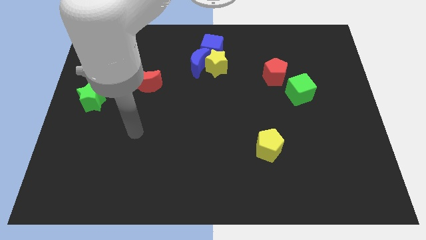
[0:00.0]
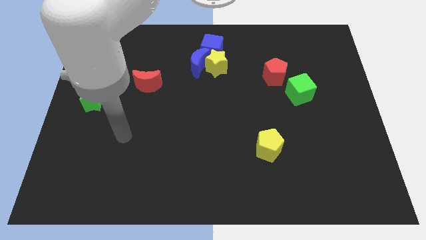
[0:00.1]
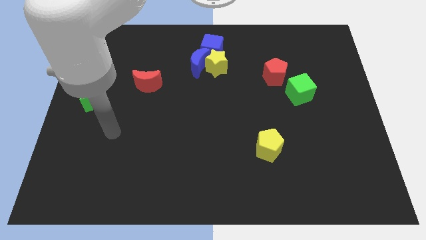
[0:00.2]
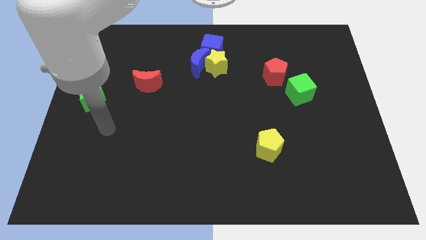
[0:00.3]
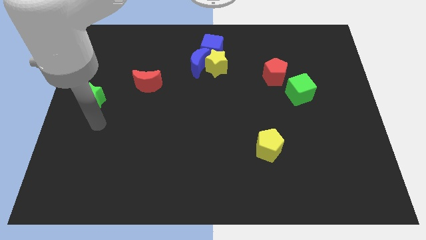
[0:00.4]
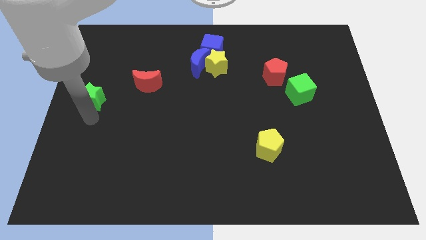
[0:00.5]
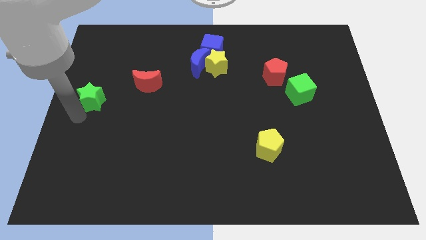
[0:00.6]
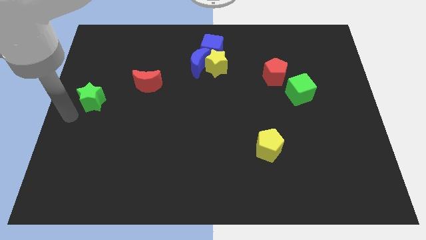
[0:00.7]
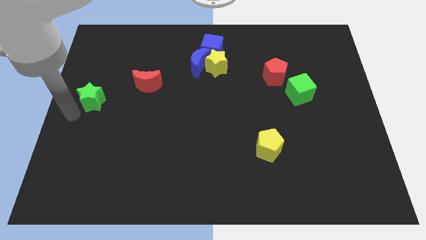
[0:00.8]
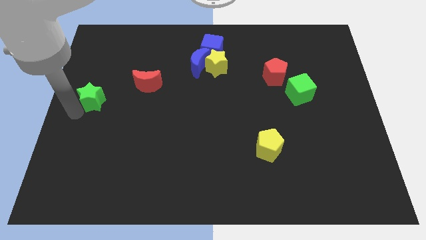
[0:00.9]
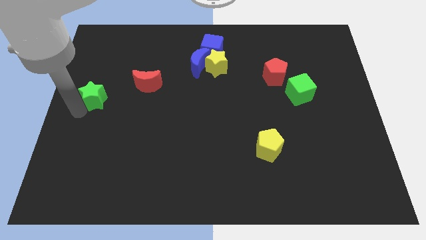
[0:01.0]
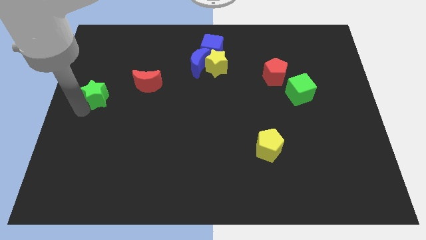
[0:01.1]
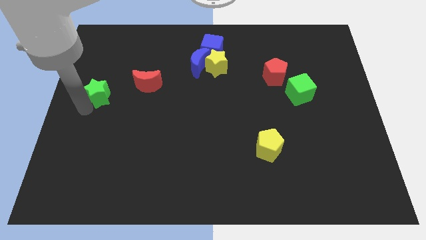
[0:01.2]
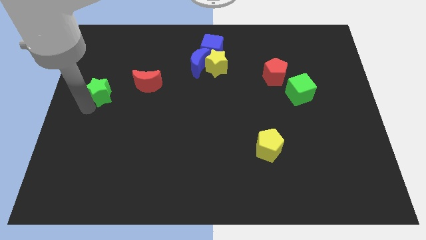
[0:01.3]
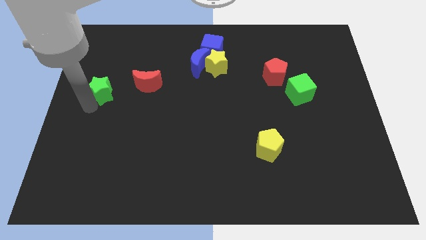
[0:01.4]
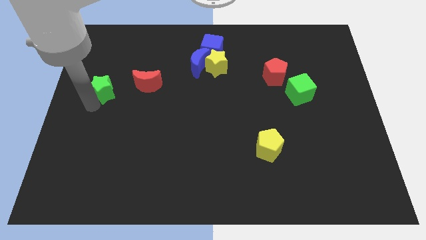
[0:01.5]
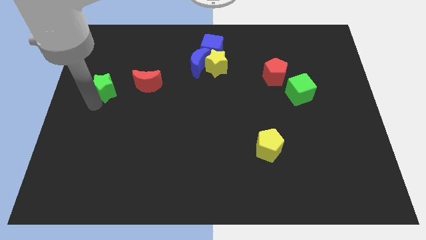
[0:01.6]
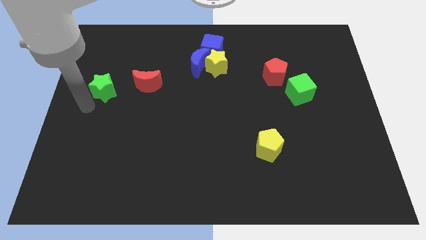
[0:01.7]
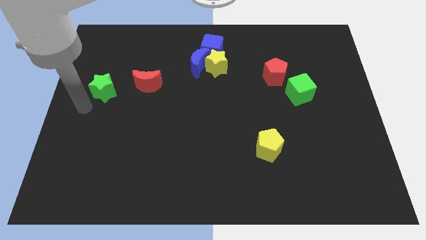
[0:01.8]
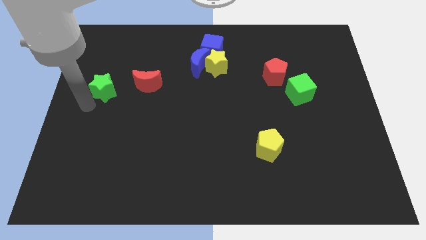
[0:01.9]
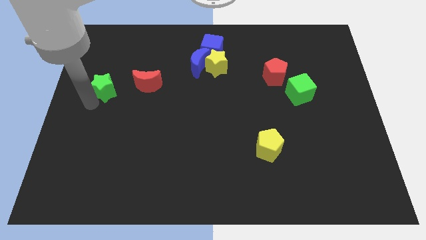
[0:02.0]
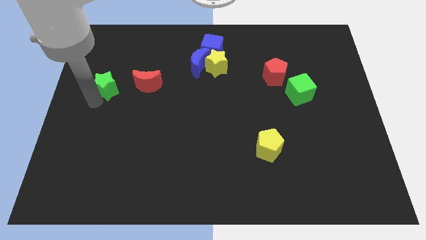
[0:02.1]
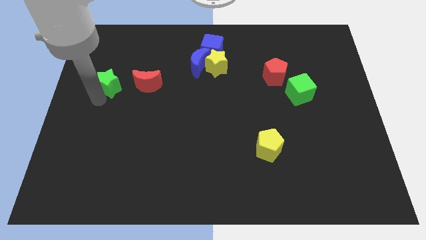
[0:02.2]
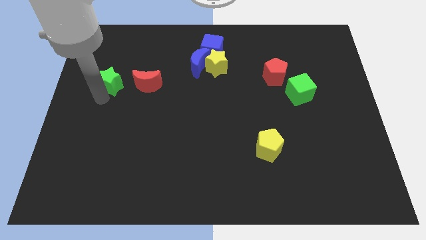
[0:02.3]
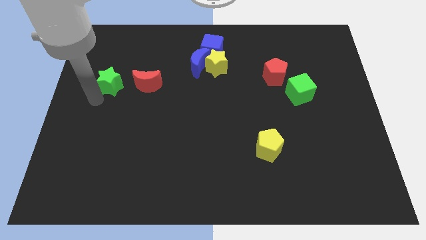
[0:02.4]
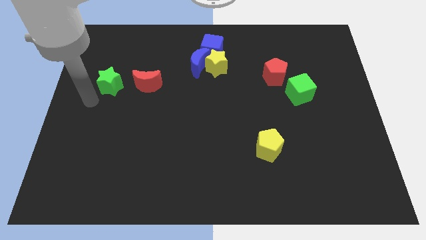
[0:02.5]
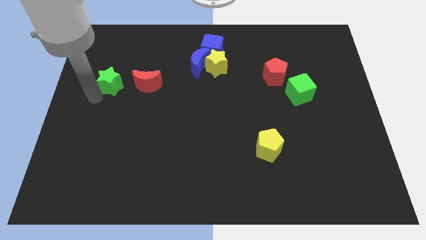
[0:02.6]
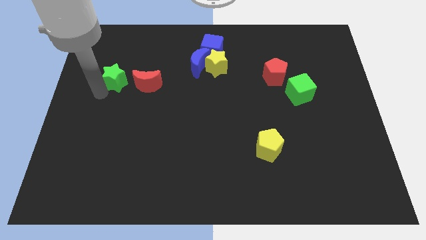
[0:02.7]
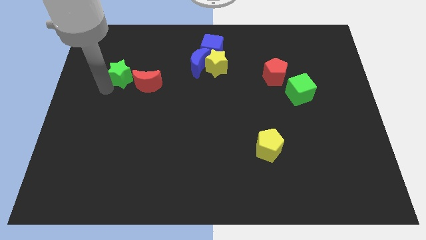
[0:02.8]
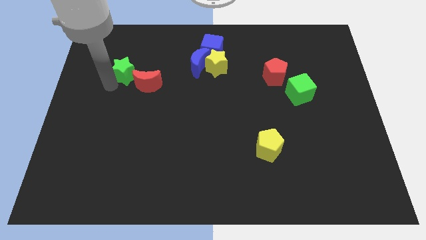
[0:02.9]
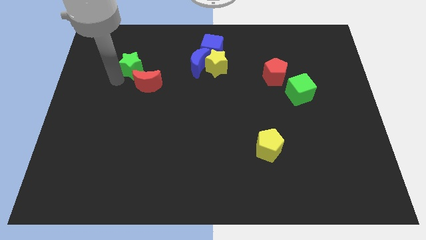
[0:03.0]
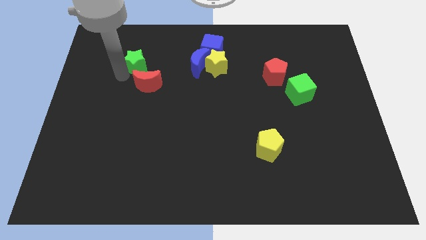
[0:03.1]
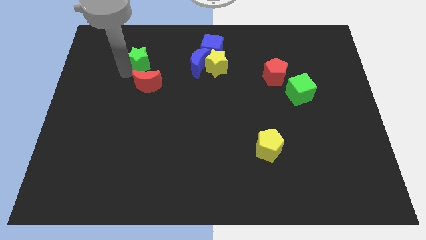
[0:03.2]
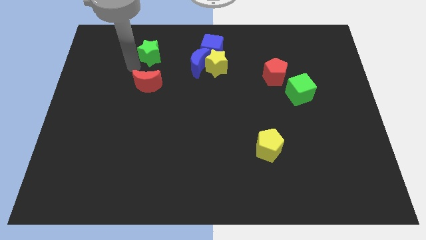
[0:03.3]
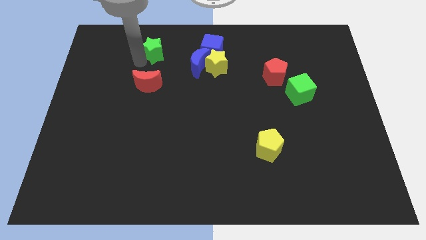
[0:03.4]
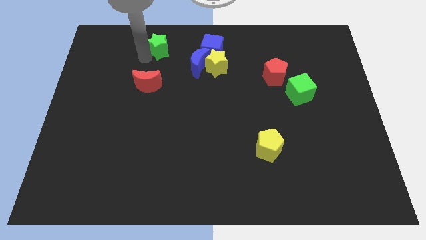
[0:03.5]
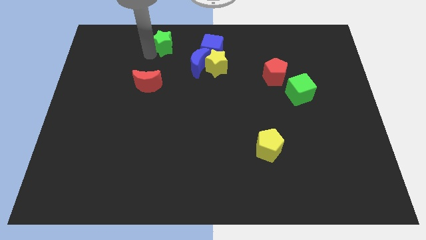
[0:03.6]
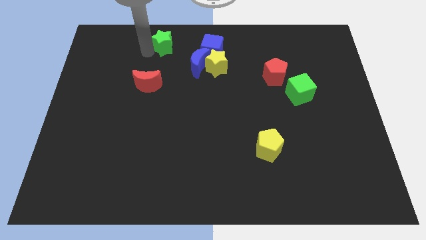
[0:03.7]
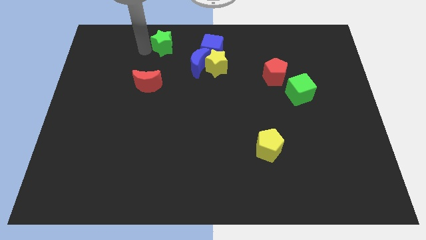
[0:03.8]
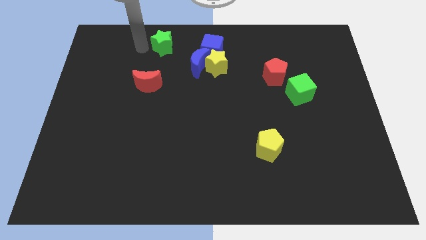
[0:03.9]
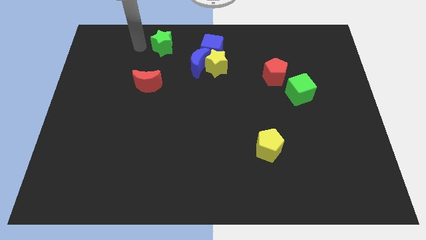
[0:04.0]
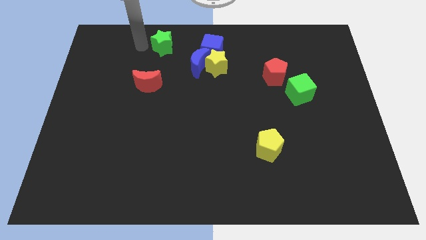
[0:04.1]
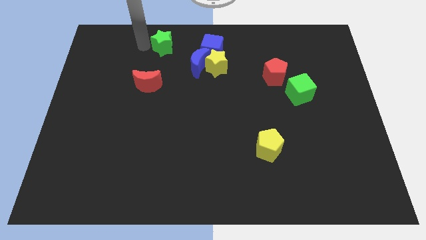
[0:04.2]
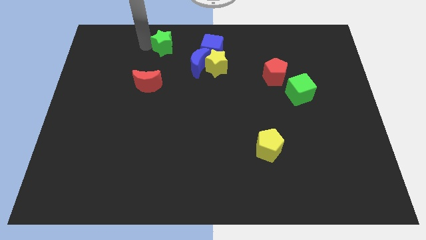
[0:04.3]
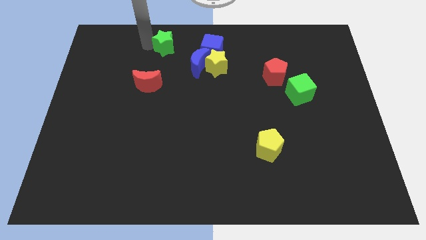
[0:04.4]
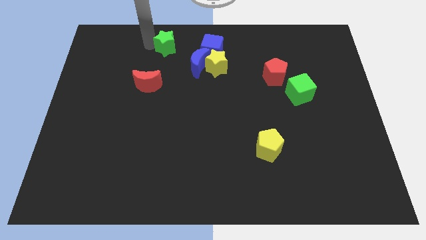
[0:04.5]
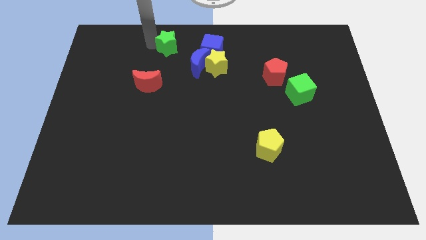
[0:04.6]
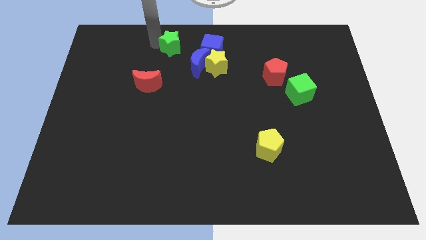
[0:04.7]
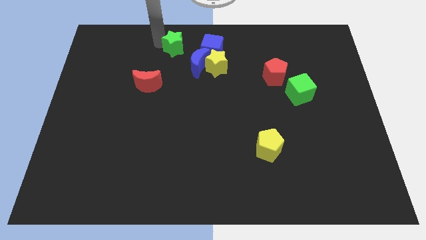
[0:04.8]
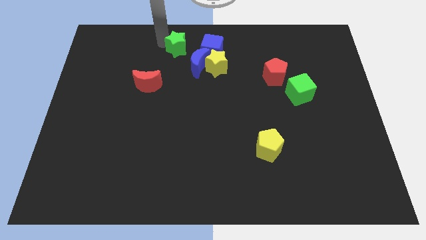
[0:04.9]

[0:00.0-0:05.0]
slide the green star to the towards your base

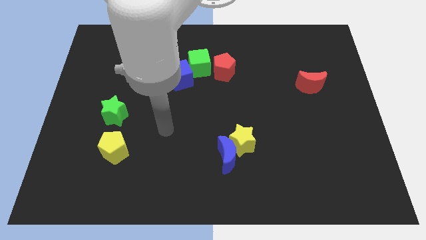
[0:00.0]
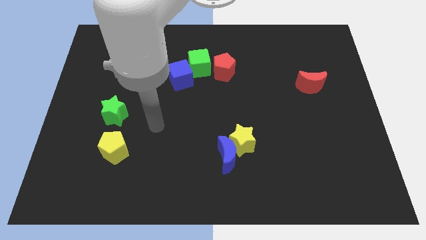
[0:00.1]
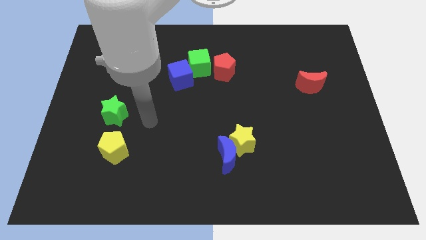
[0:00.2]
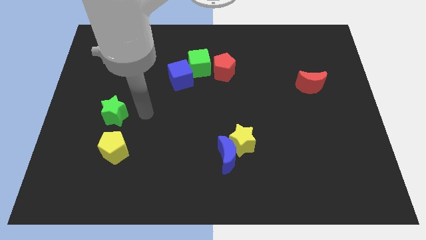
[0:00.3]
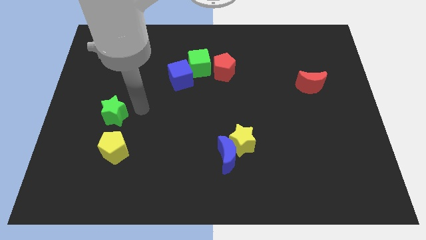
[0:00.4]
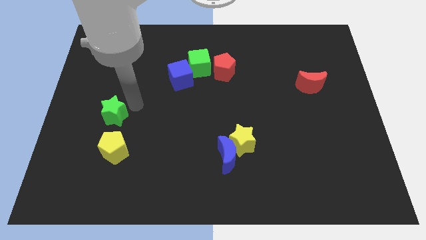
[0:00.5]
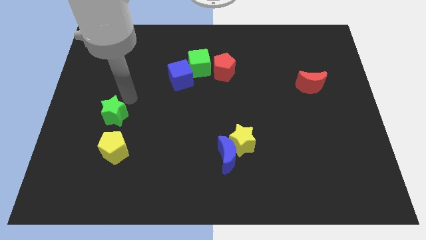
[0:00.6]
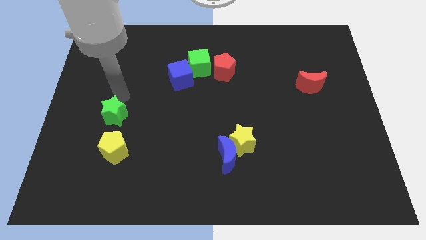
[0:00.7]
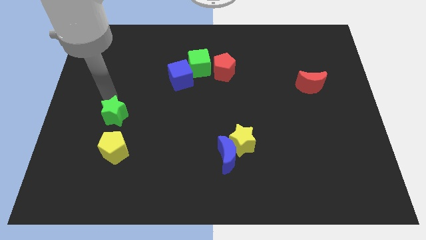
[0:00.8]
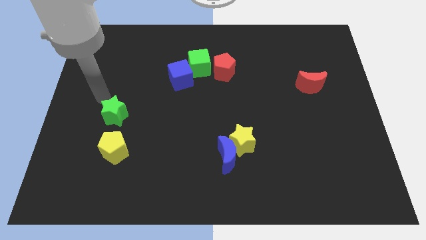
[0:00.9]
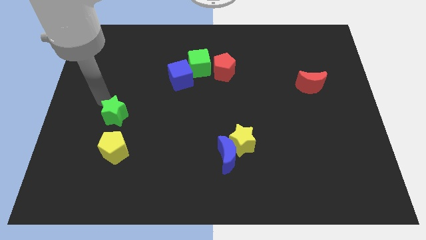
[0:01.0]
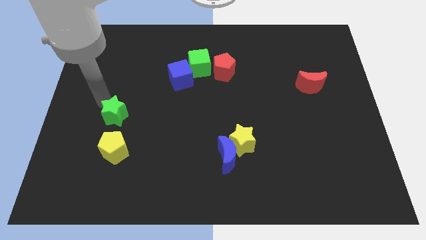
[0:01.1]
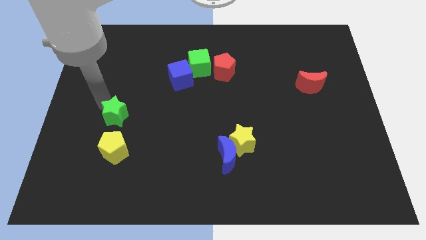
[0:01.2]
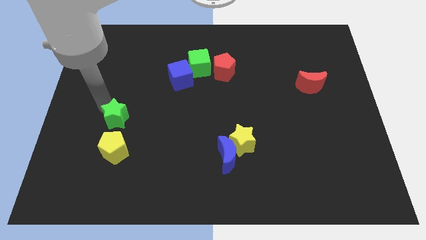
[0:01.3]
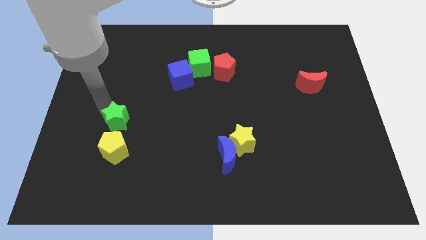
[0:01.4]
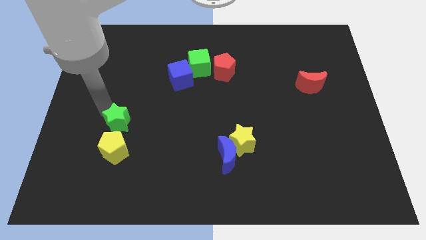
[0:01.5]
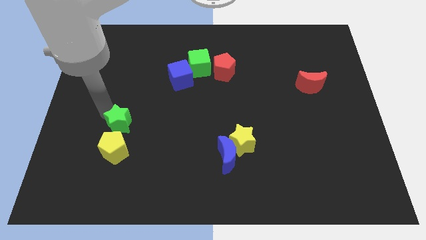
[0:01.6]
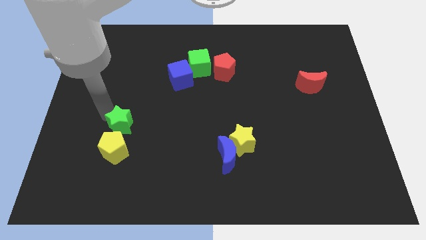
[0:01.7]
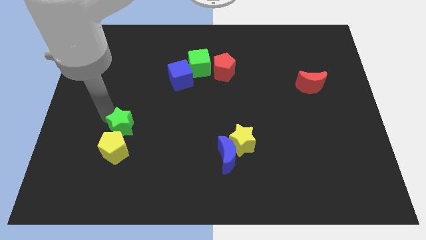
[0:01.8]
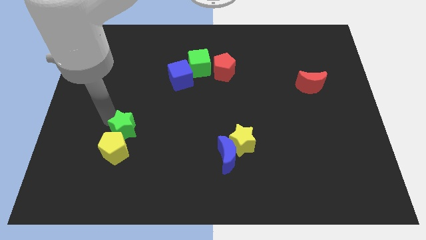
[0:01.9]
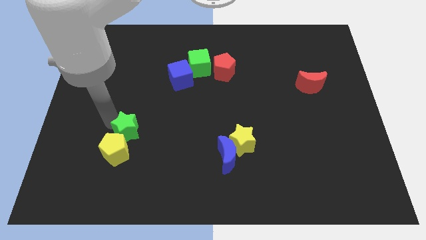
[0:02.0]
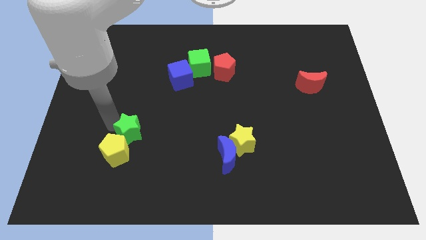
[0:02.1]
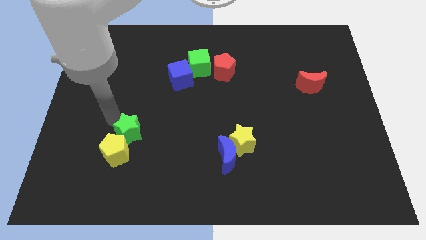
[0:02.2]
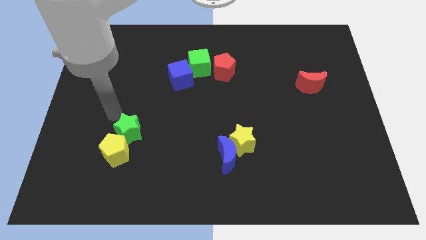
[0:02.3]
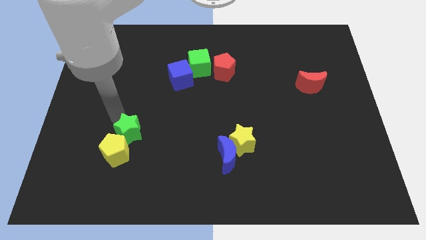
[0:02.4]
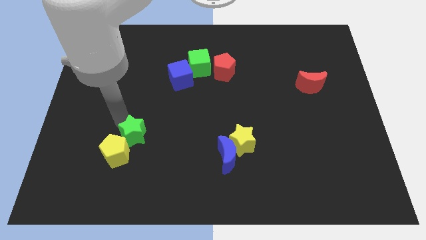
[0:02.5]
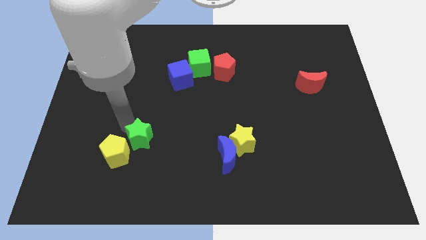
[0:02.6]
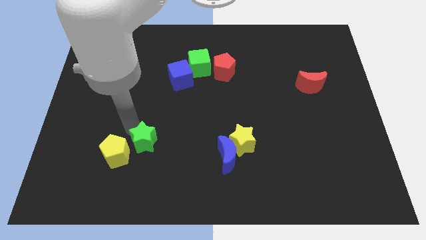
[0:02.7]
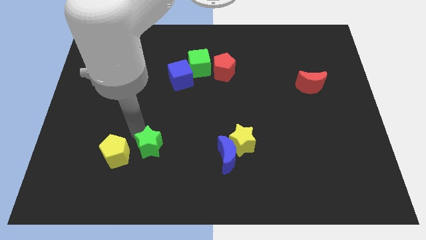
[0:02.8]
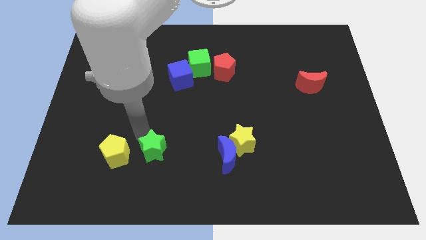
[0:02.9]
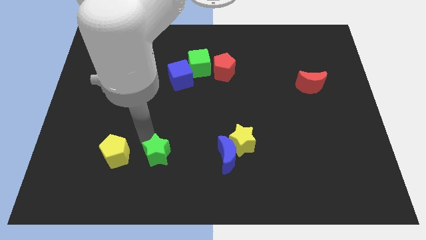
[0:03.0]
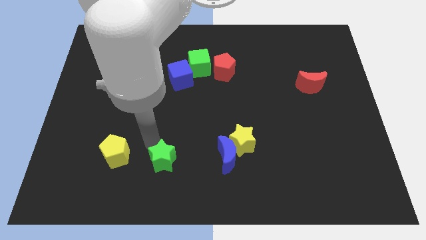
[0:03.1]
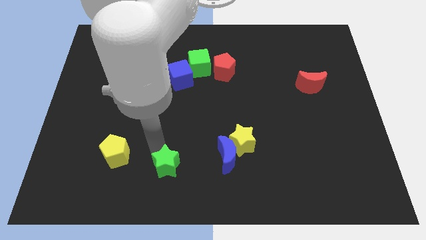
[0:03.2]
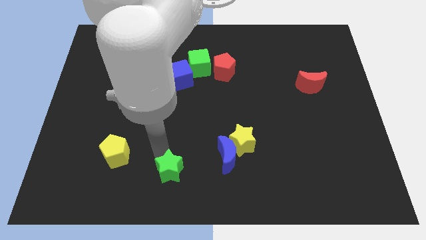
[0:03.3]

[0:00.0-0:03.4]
put the green star to the bottom
